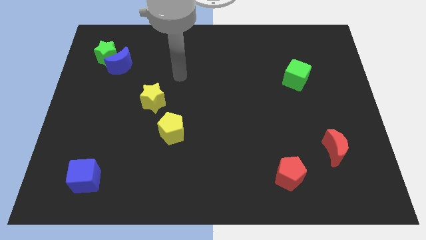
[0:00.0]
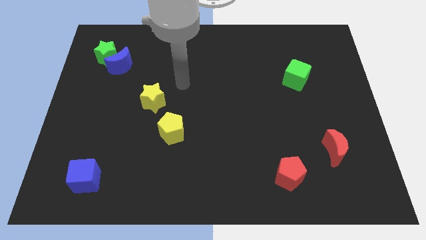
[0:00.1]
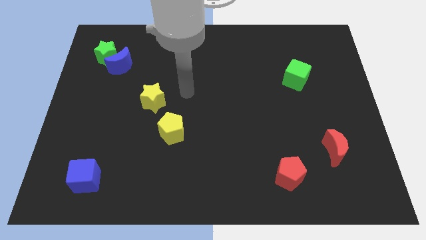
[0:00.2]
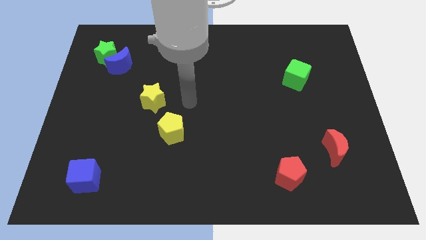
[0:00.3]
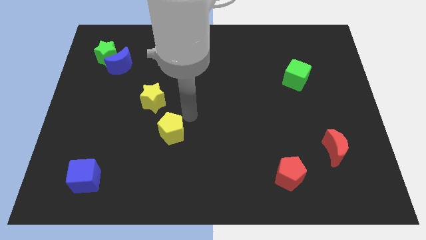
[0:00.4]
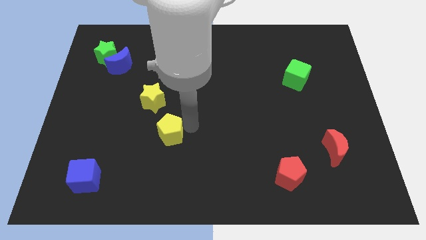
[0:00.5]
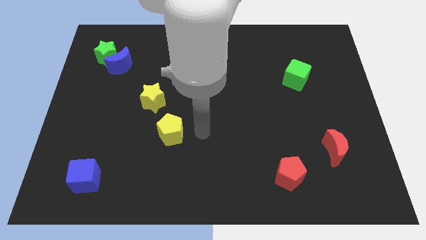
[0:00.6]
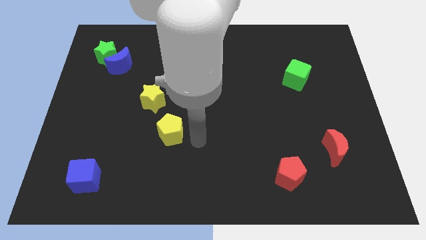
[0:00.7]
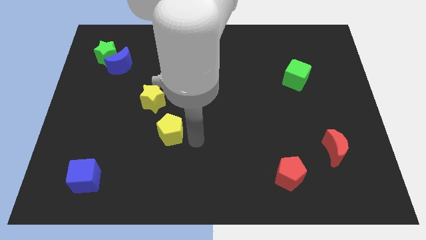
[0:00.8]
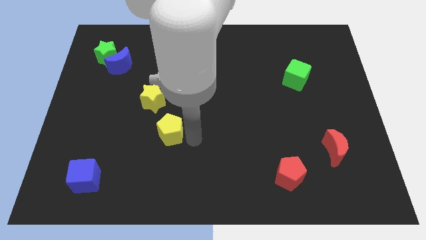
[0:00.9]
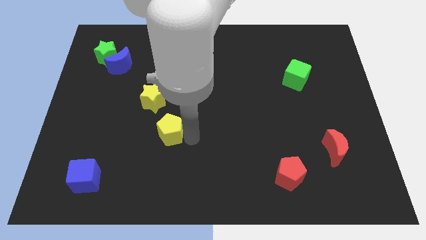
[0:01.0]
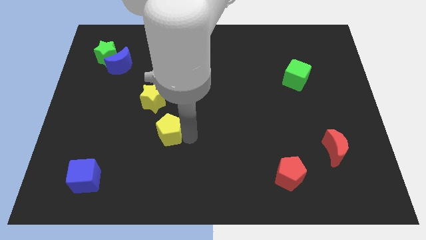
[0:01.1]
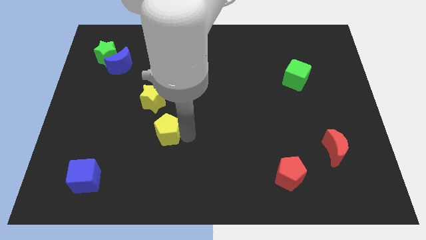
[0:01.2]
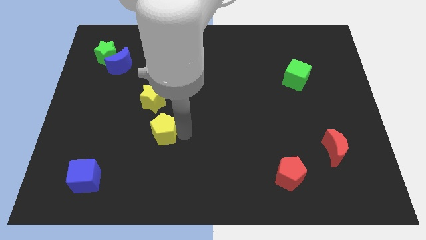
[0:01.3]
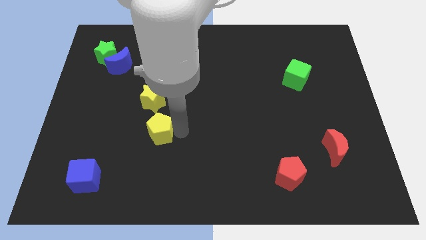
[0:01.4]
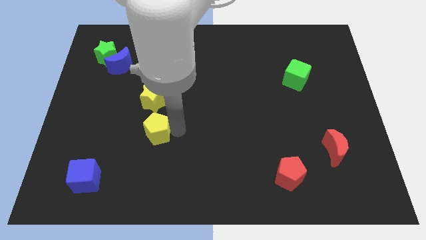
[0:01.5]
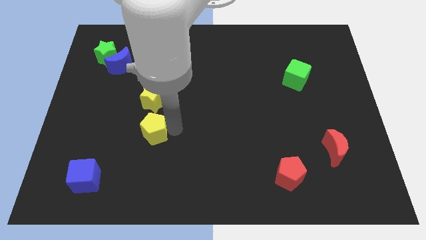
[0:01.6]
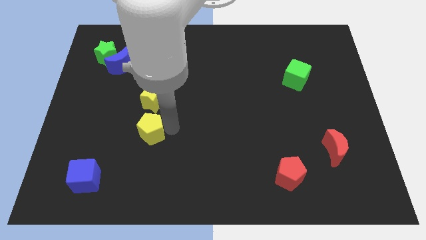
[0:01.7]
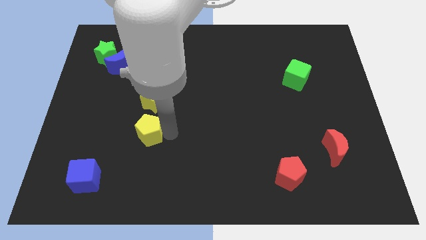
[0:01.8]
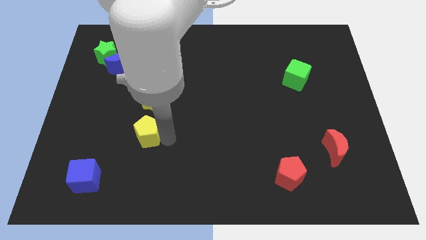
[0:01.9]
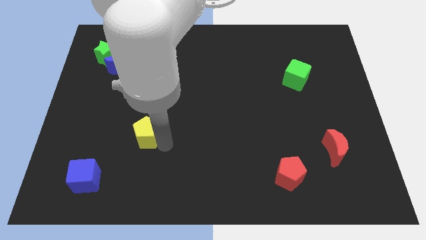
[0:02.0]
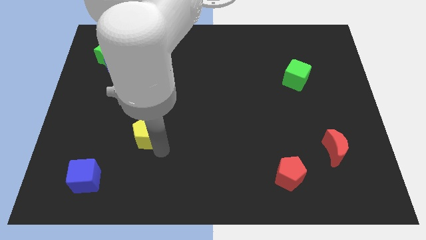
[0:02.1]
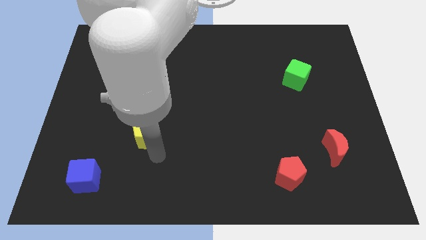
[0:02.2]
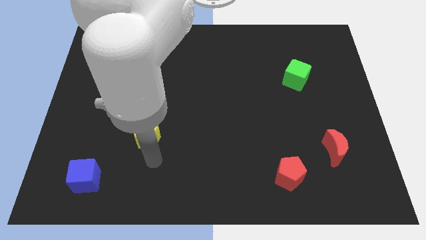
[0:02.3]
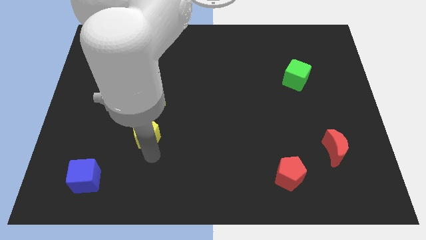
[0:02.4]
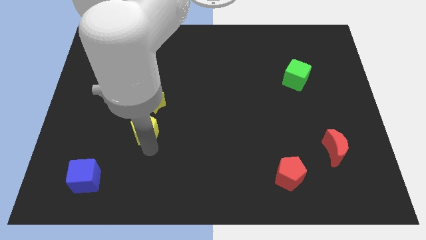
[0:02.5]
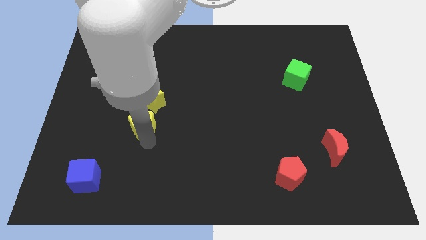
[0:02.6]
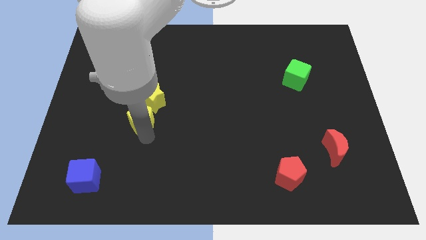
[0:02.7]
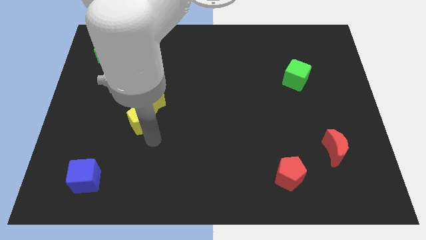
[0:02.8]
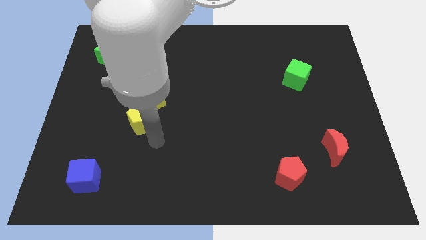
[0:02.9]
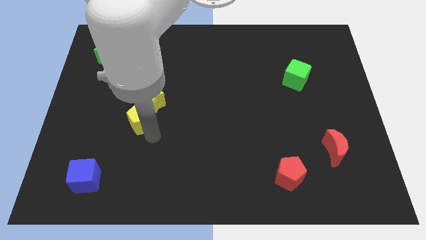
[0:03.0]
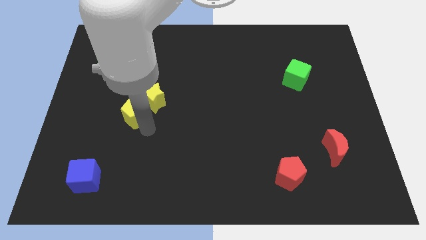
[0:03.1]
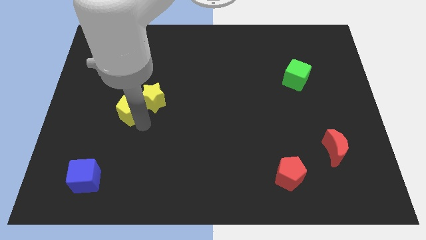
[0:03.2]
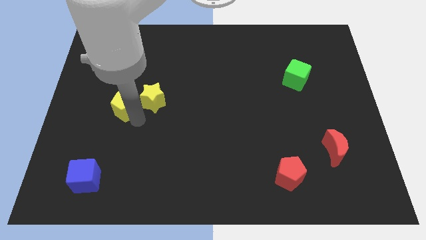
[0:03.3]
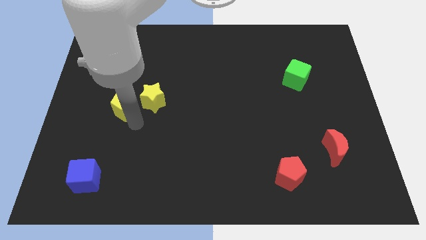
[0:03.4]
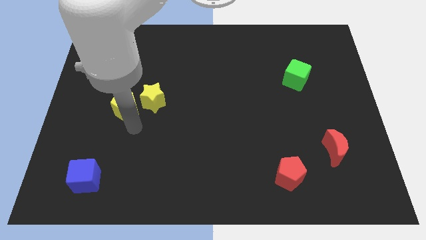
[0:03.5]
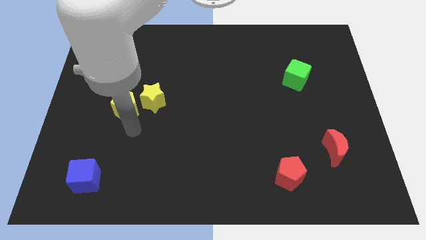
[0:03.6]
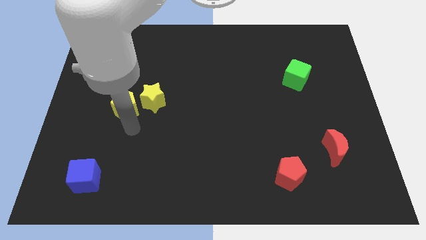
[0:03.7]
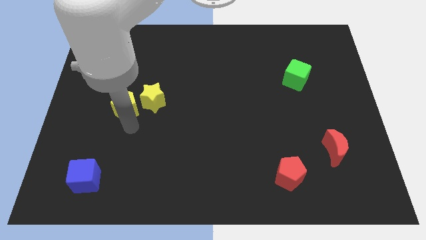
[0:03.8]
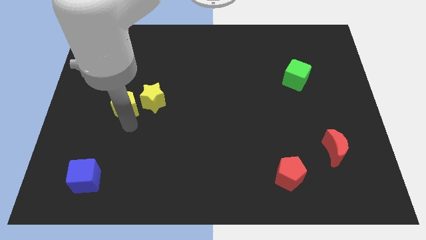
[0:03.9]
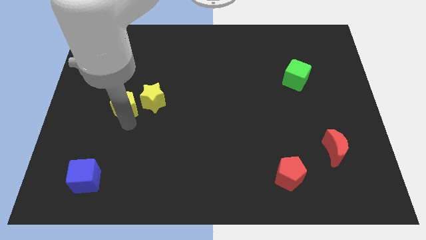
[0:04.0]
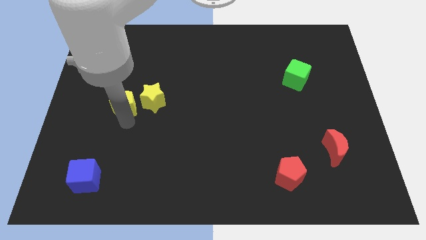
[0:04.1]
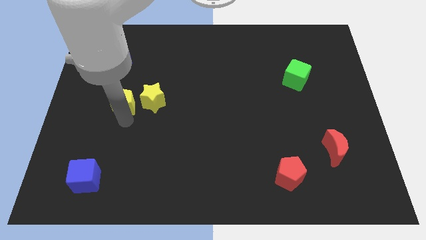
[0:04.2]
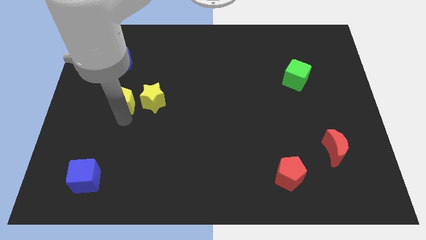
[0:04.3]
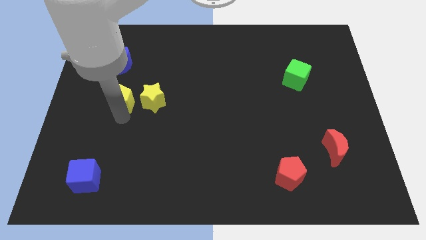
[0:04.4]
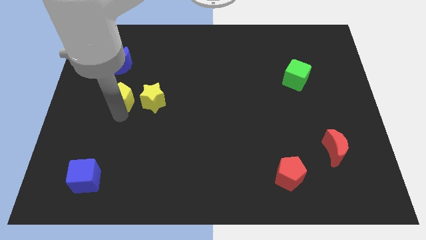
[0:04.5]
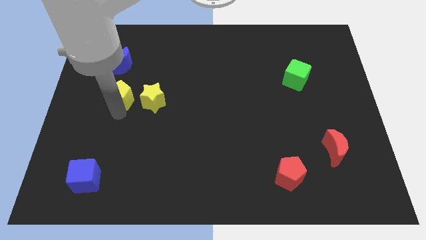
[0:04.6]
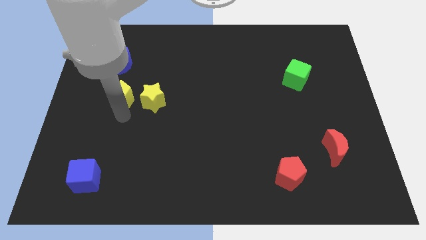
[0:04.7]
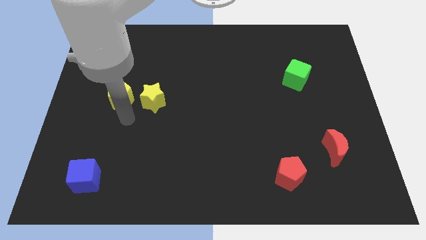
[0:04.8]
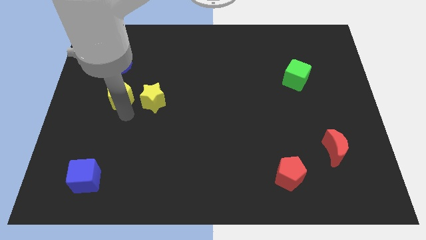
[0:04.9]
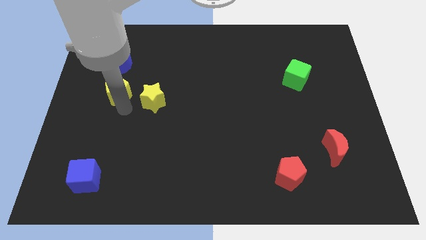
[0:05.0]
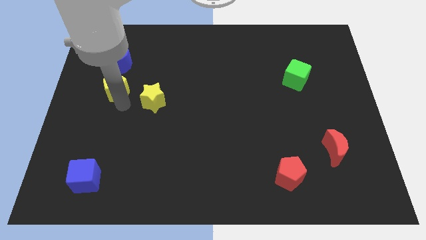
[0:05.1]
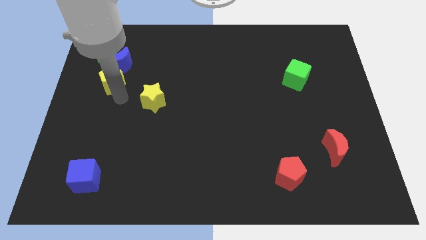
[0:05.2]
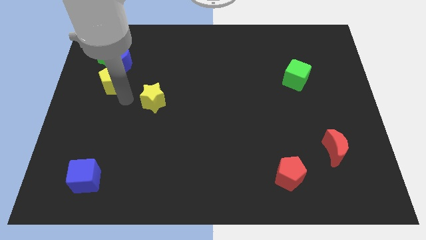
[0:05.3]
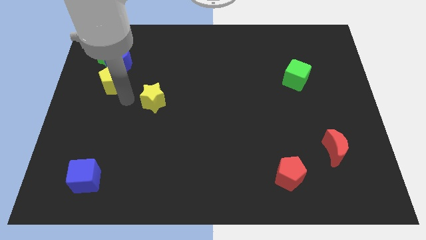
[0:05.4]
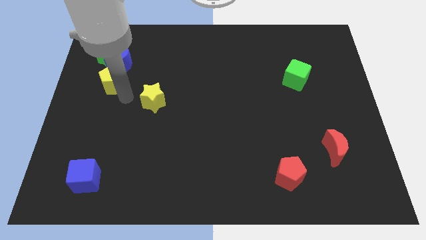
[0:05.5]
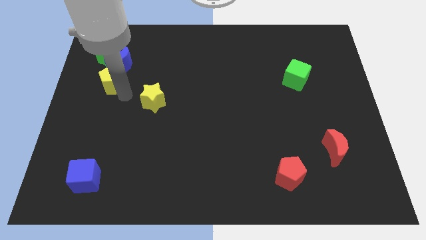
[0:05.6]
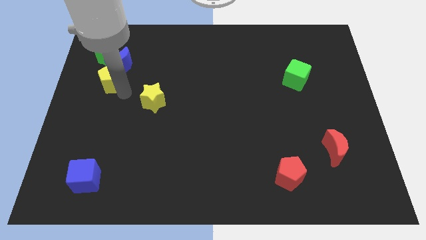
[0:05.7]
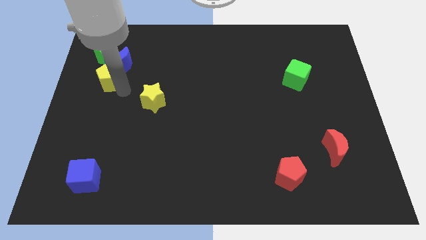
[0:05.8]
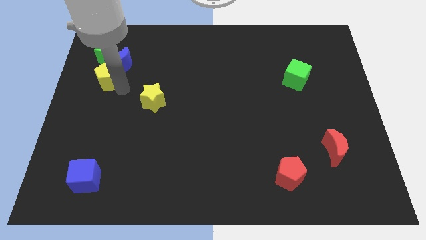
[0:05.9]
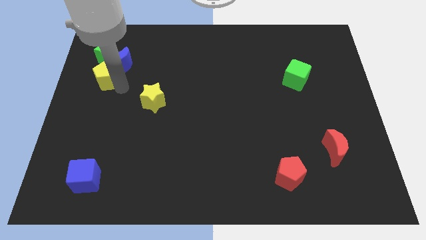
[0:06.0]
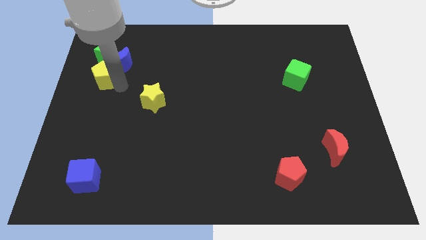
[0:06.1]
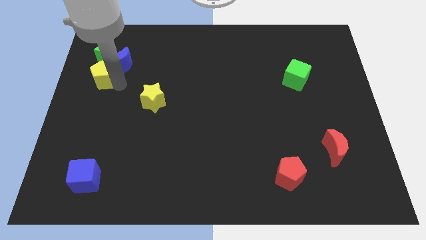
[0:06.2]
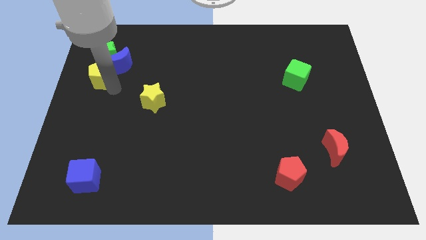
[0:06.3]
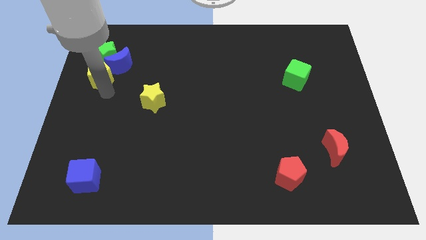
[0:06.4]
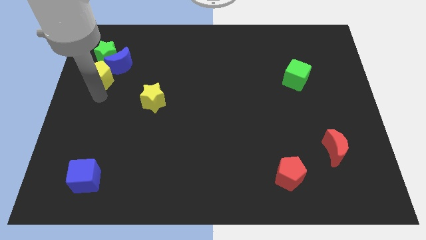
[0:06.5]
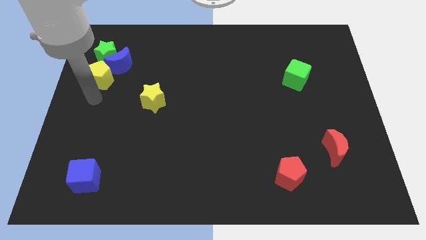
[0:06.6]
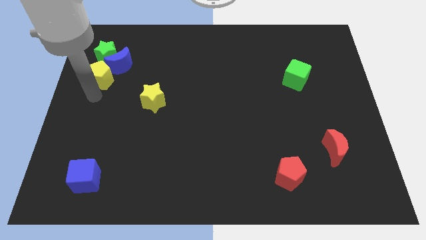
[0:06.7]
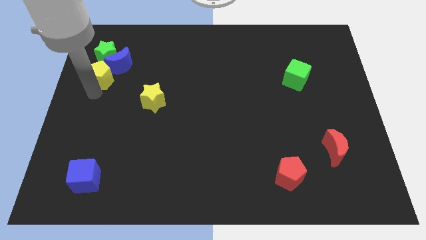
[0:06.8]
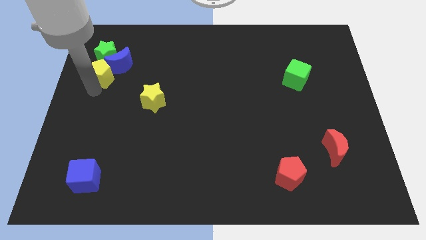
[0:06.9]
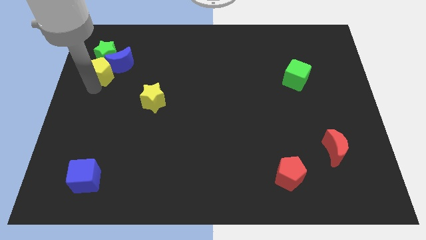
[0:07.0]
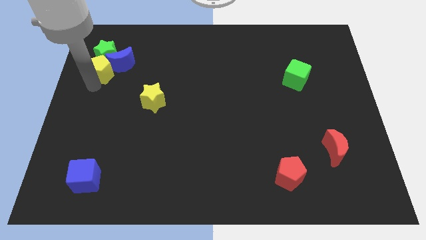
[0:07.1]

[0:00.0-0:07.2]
push the yellow pentagon towards the green star

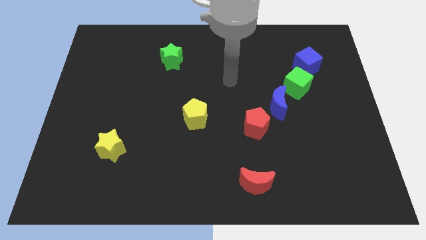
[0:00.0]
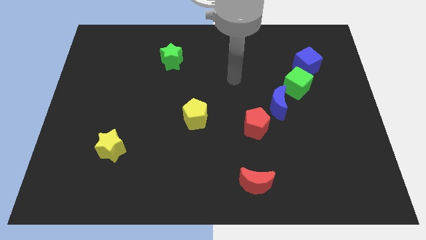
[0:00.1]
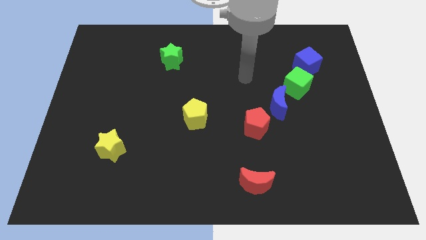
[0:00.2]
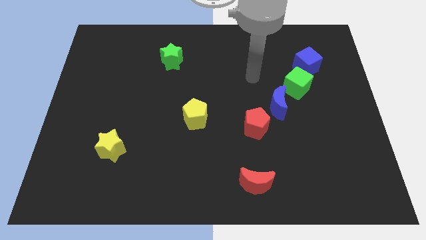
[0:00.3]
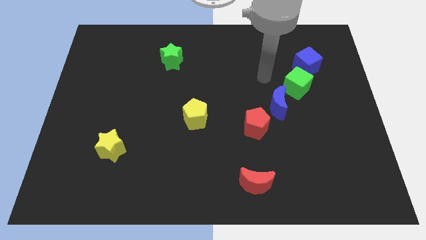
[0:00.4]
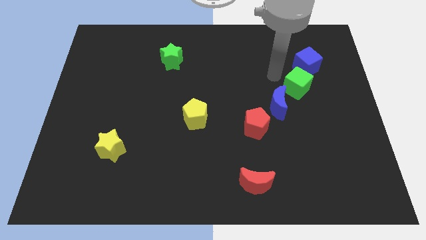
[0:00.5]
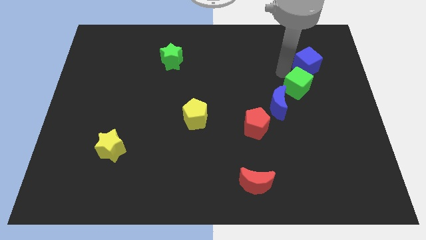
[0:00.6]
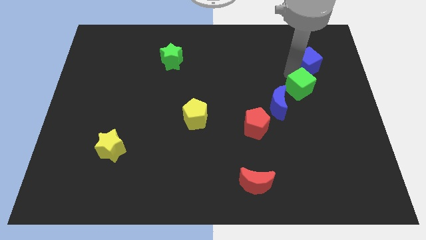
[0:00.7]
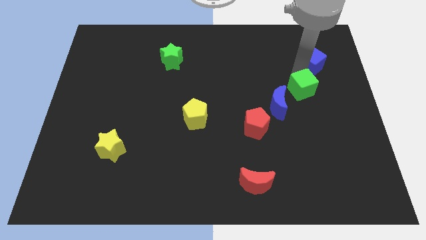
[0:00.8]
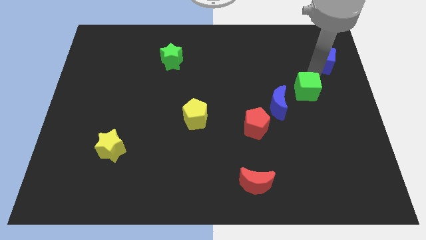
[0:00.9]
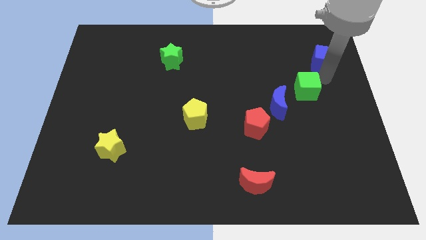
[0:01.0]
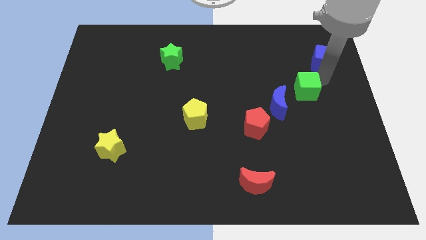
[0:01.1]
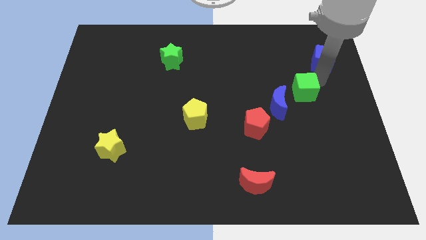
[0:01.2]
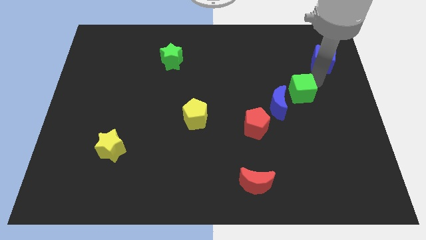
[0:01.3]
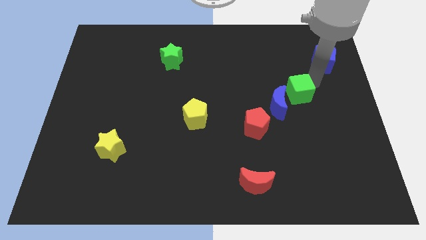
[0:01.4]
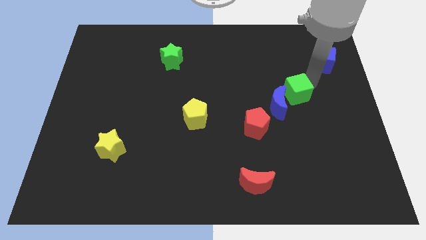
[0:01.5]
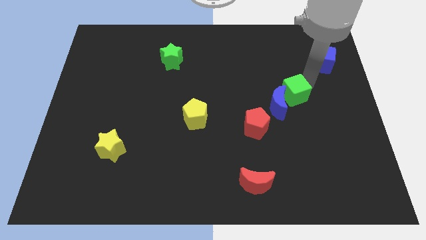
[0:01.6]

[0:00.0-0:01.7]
push the green cube close to the blue moon
